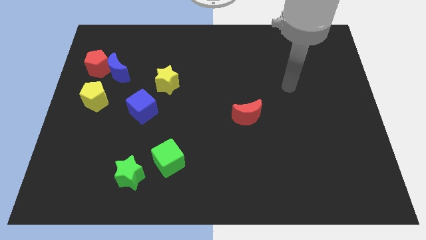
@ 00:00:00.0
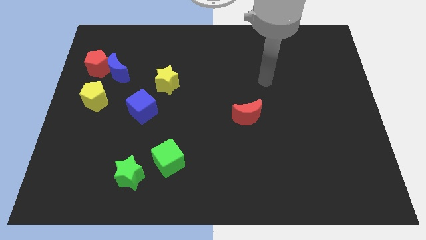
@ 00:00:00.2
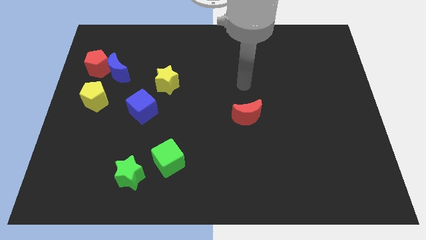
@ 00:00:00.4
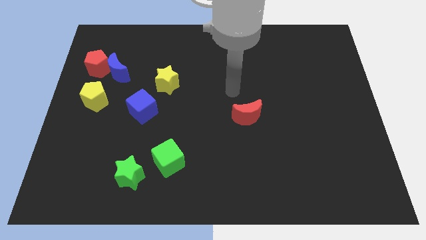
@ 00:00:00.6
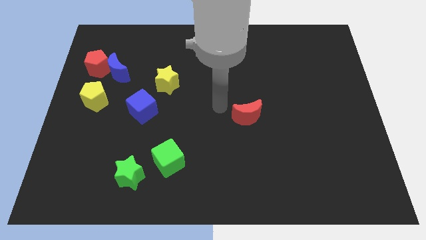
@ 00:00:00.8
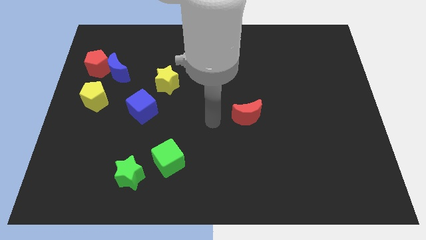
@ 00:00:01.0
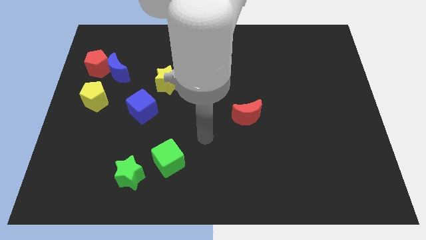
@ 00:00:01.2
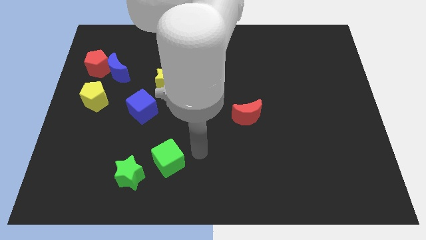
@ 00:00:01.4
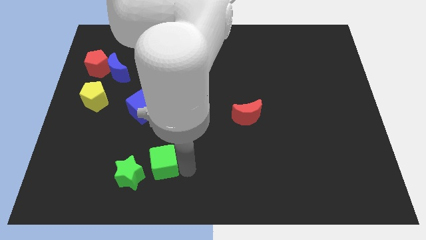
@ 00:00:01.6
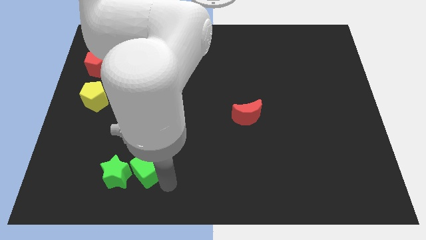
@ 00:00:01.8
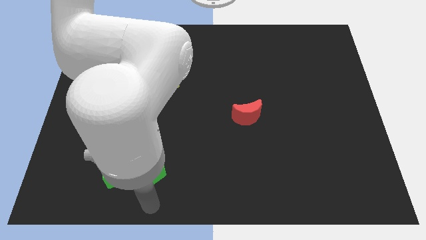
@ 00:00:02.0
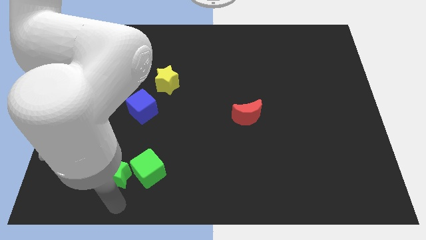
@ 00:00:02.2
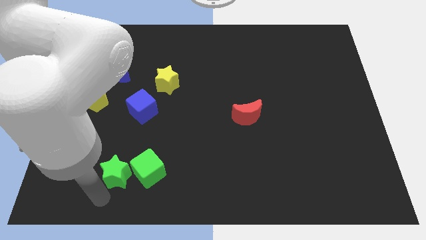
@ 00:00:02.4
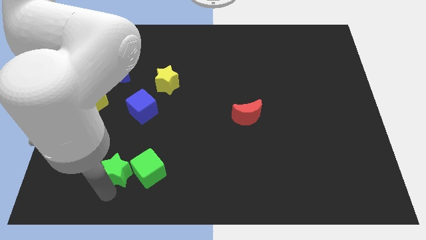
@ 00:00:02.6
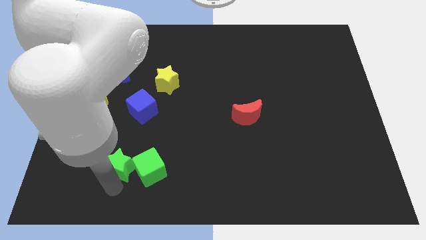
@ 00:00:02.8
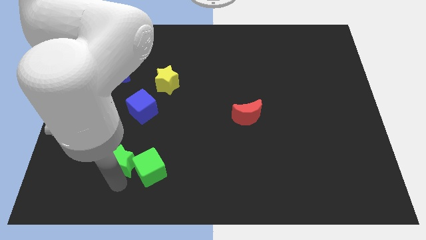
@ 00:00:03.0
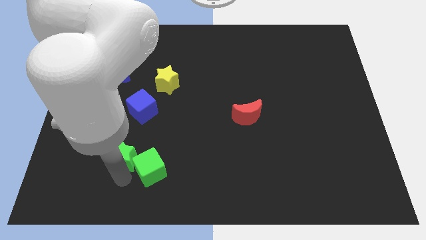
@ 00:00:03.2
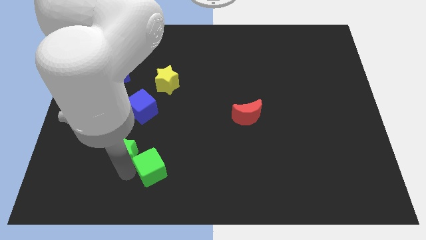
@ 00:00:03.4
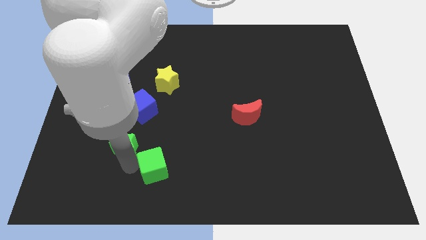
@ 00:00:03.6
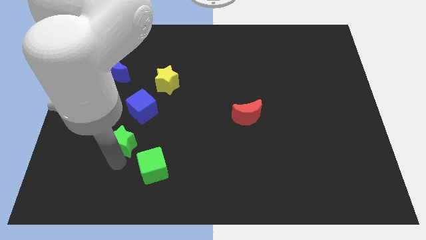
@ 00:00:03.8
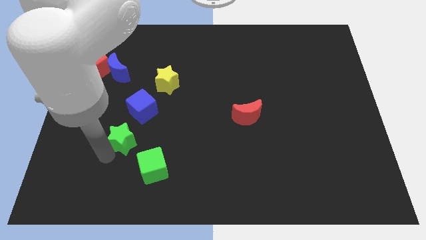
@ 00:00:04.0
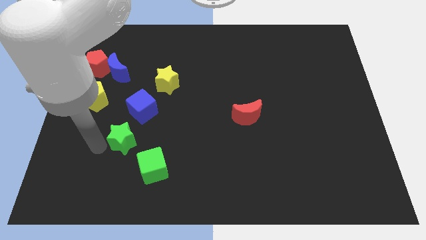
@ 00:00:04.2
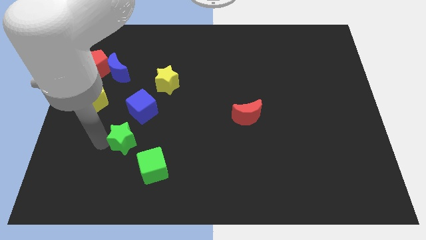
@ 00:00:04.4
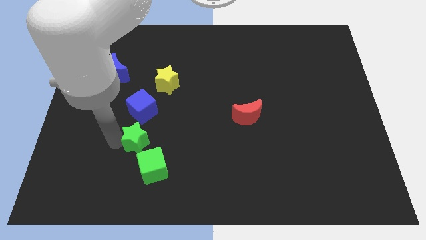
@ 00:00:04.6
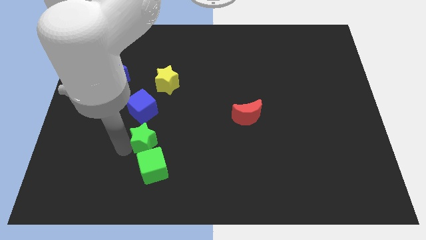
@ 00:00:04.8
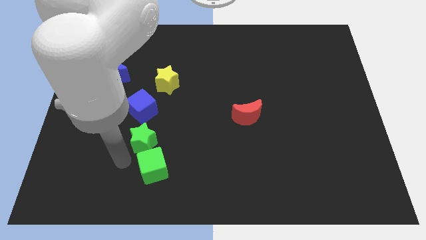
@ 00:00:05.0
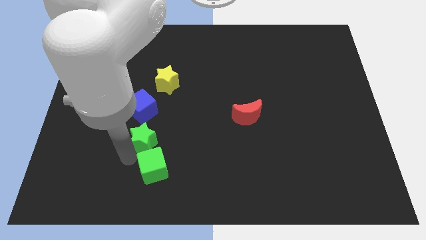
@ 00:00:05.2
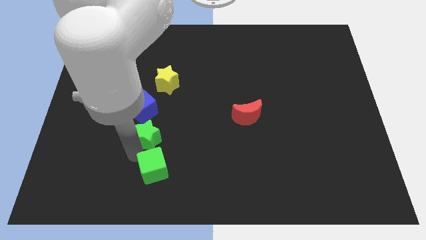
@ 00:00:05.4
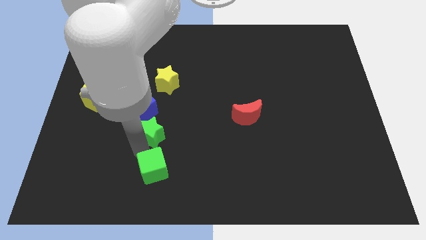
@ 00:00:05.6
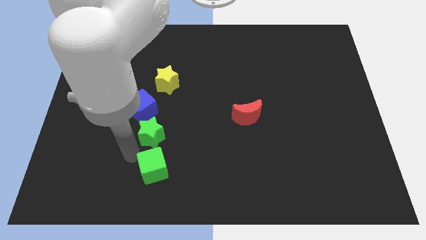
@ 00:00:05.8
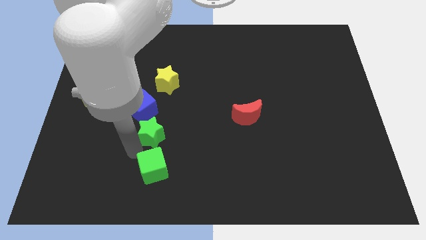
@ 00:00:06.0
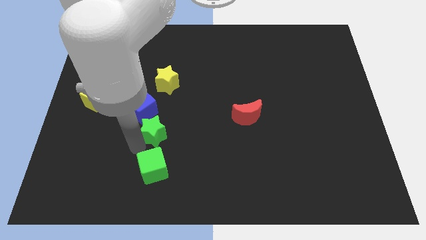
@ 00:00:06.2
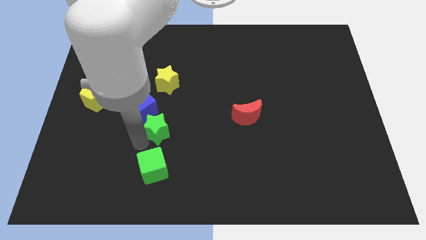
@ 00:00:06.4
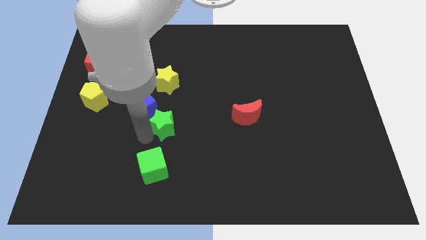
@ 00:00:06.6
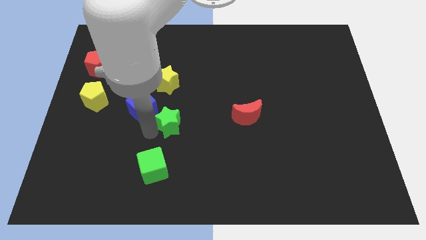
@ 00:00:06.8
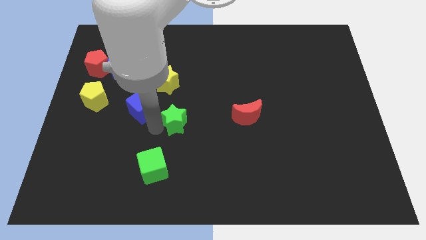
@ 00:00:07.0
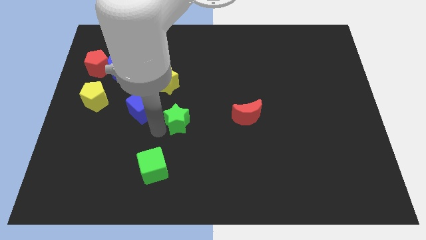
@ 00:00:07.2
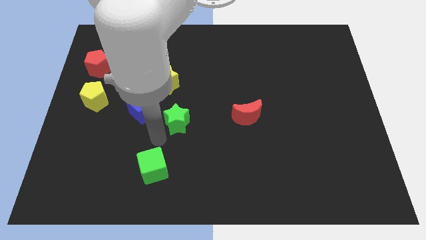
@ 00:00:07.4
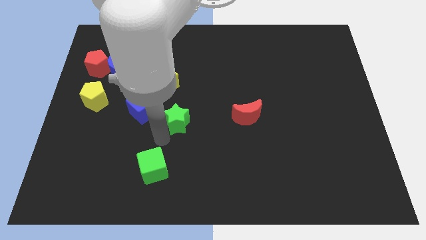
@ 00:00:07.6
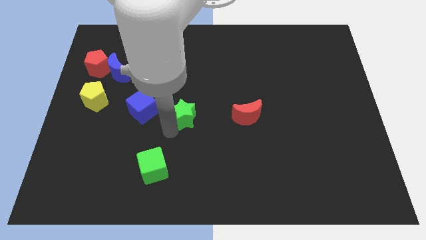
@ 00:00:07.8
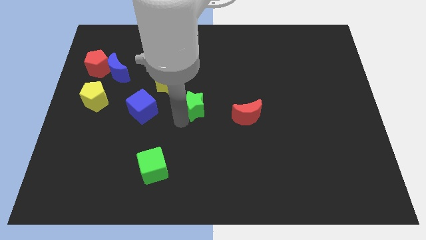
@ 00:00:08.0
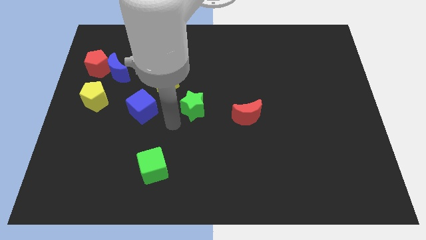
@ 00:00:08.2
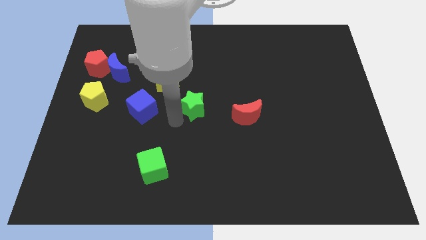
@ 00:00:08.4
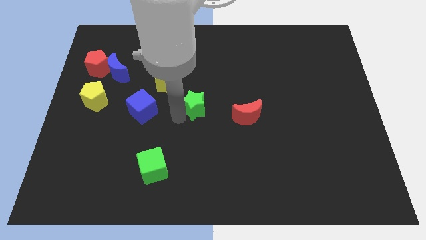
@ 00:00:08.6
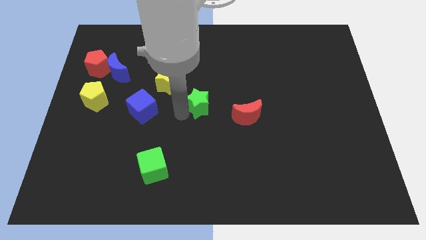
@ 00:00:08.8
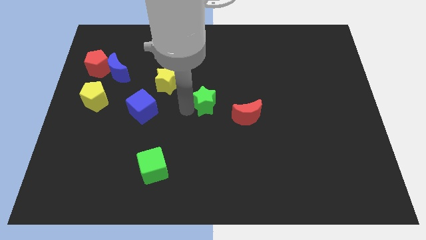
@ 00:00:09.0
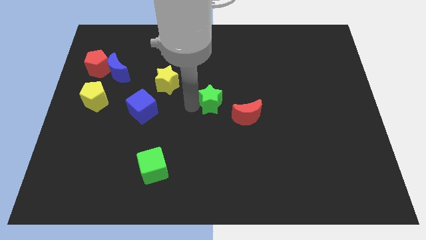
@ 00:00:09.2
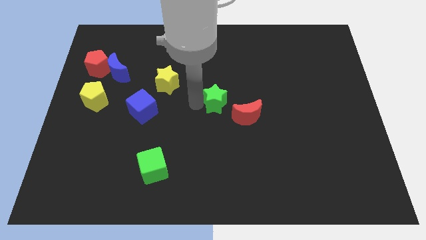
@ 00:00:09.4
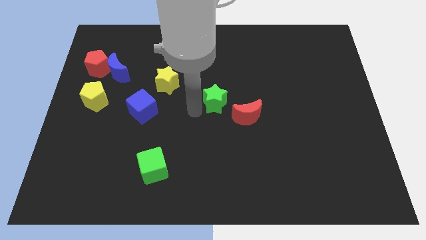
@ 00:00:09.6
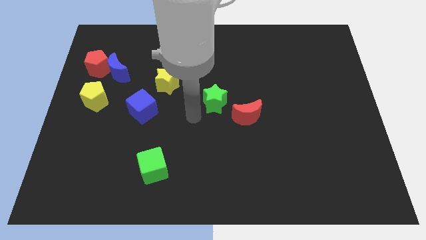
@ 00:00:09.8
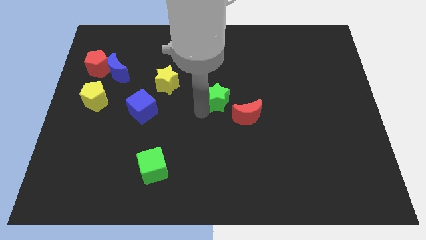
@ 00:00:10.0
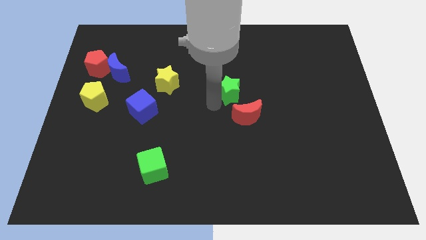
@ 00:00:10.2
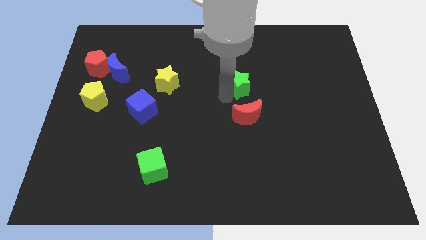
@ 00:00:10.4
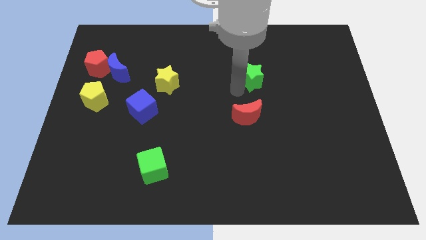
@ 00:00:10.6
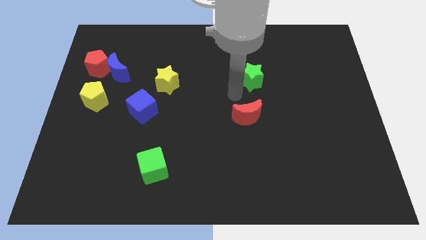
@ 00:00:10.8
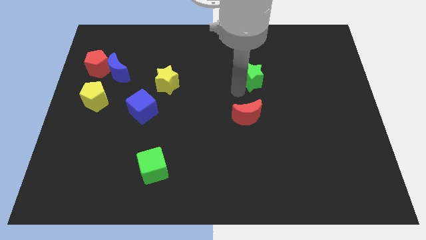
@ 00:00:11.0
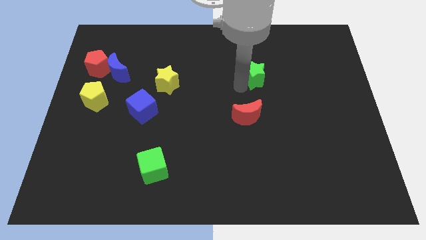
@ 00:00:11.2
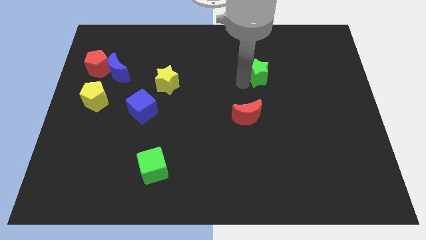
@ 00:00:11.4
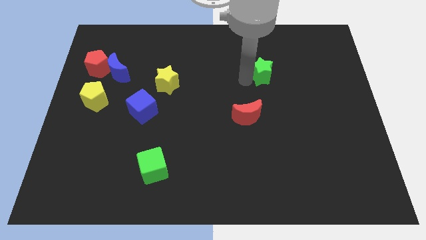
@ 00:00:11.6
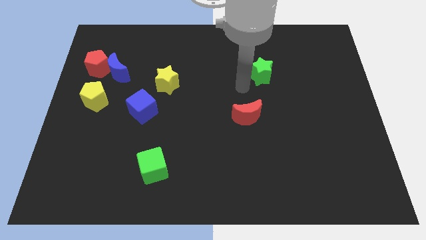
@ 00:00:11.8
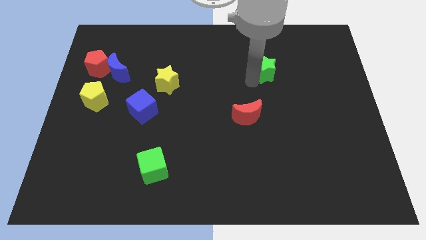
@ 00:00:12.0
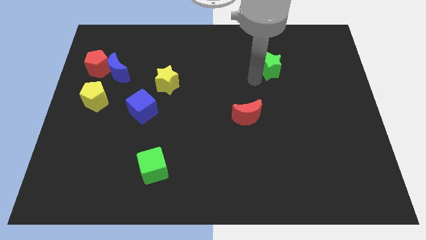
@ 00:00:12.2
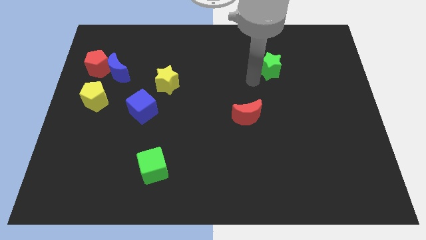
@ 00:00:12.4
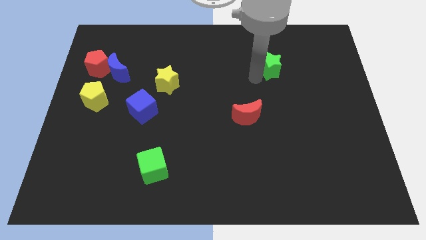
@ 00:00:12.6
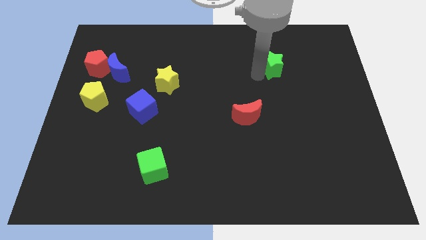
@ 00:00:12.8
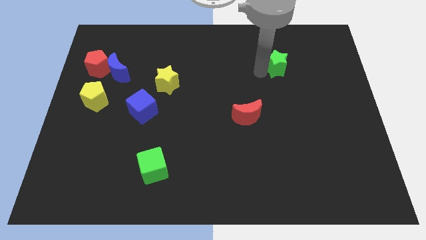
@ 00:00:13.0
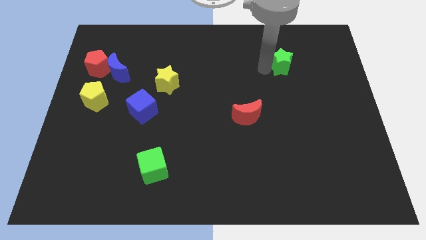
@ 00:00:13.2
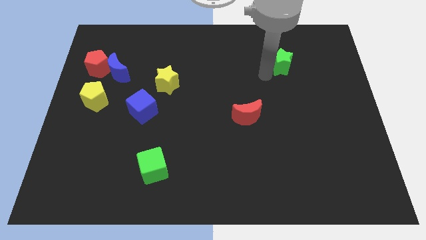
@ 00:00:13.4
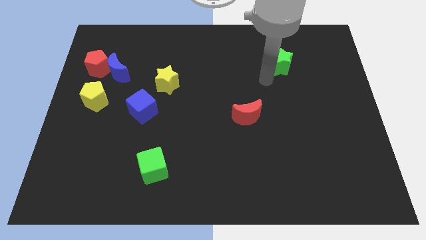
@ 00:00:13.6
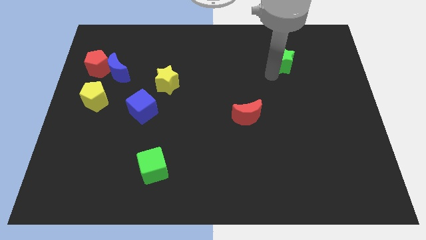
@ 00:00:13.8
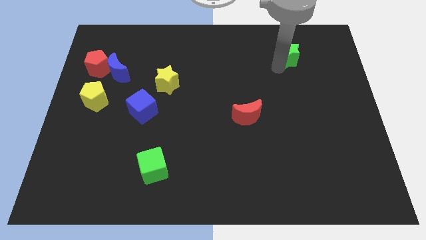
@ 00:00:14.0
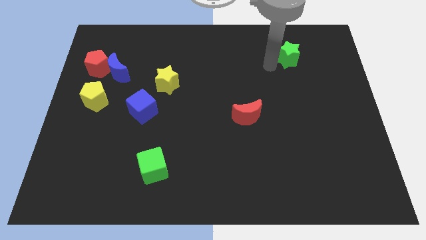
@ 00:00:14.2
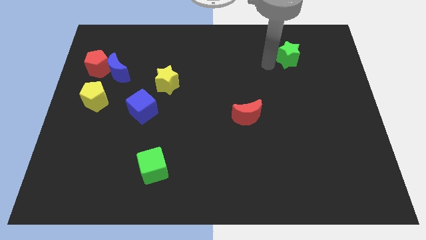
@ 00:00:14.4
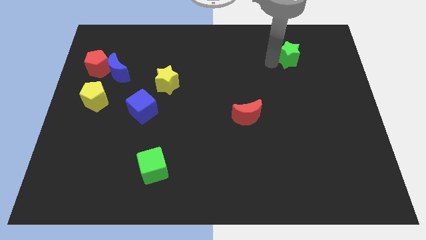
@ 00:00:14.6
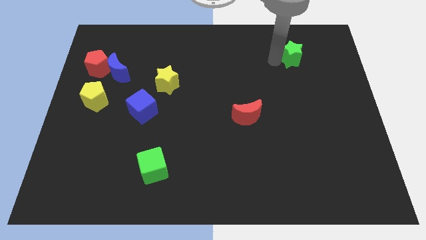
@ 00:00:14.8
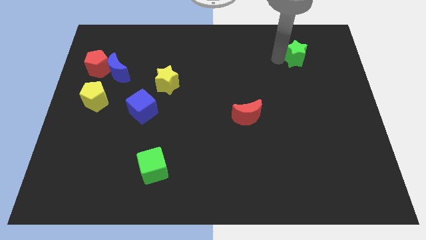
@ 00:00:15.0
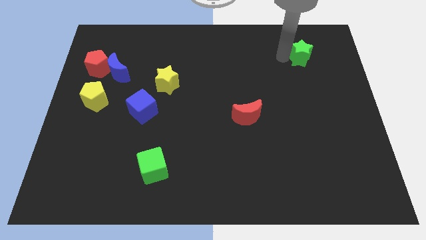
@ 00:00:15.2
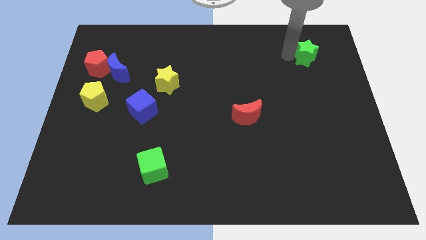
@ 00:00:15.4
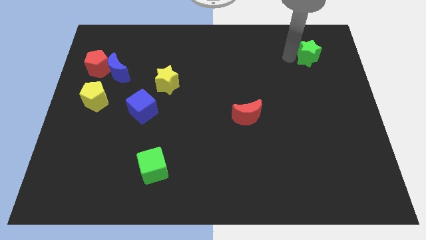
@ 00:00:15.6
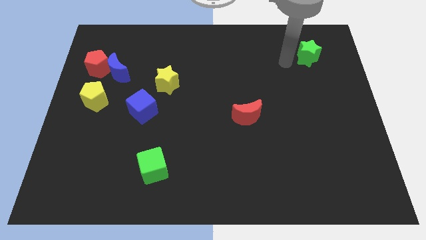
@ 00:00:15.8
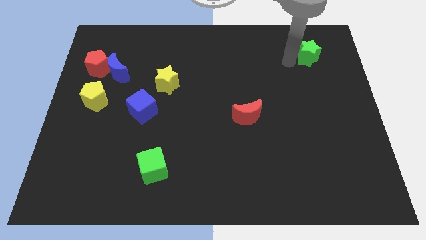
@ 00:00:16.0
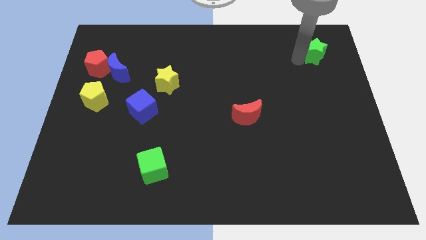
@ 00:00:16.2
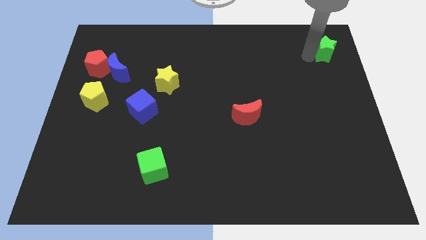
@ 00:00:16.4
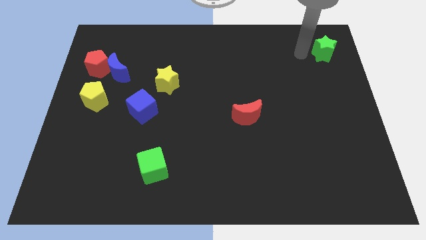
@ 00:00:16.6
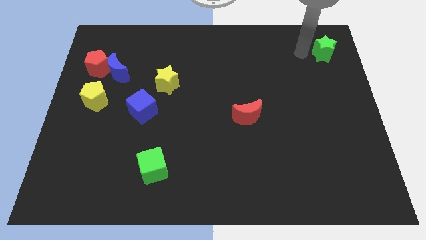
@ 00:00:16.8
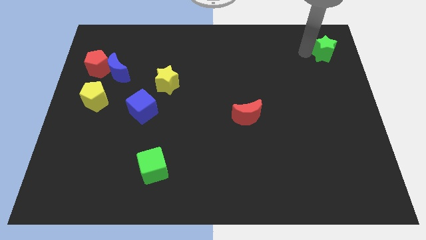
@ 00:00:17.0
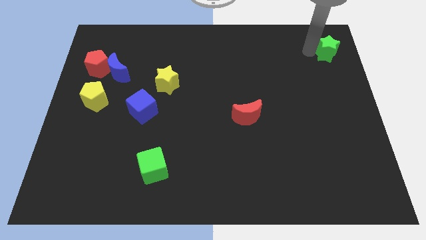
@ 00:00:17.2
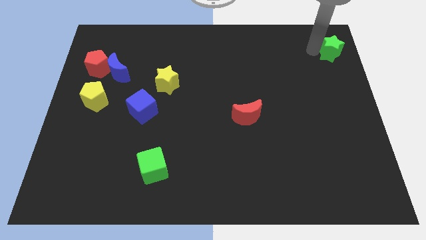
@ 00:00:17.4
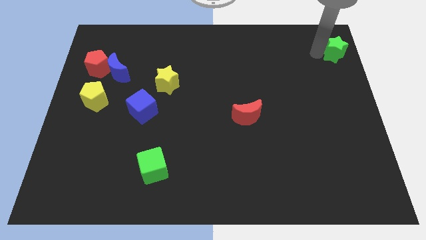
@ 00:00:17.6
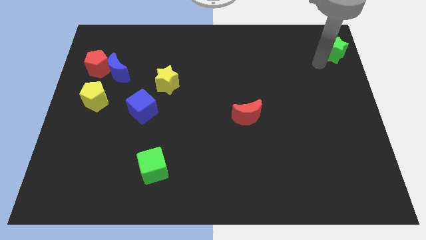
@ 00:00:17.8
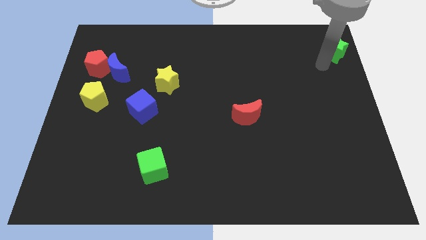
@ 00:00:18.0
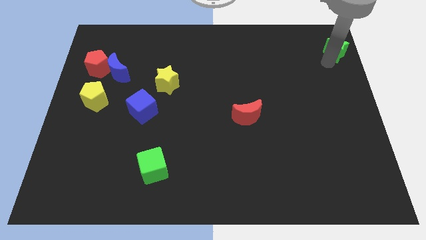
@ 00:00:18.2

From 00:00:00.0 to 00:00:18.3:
push the green star to the top right
